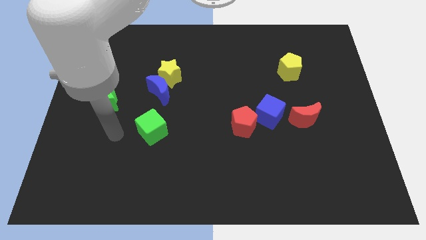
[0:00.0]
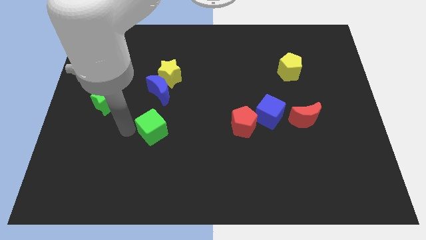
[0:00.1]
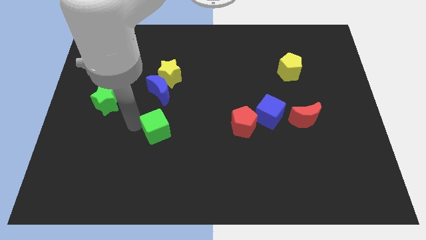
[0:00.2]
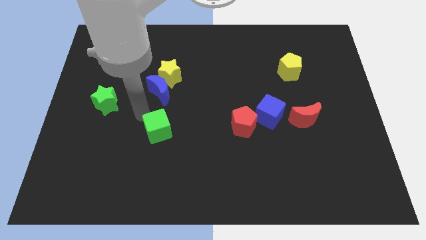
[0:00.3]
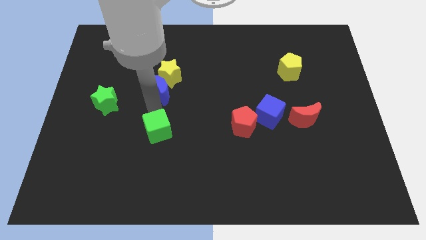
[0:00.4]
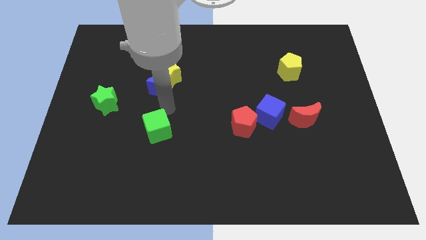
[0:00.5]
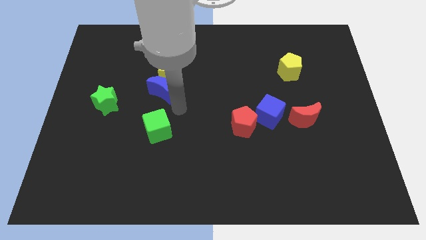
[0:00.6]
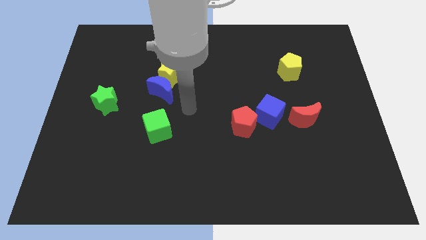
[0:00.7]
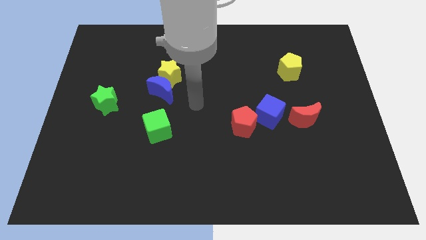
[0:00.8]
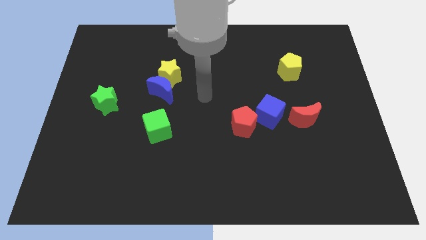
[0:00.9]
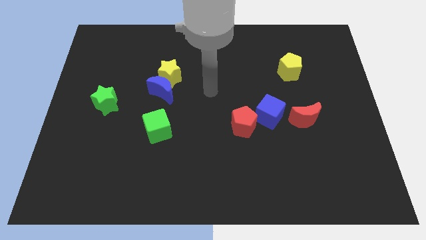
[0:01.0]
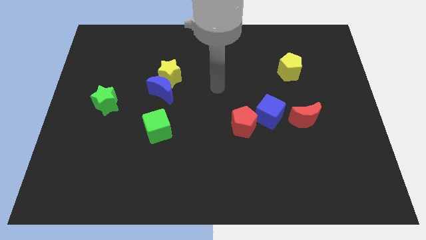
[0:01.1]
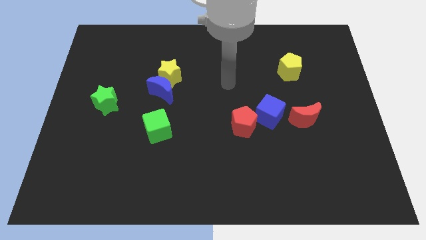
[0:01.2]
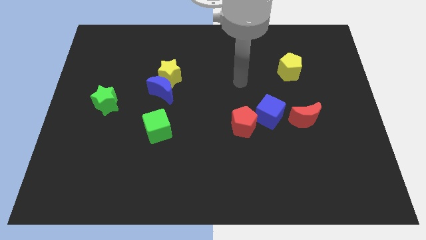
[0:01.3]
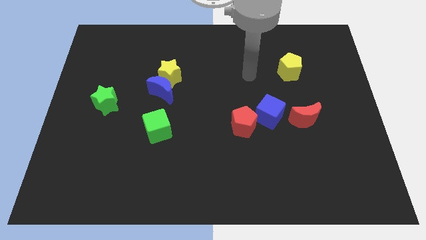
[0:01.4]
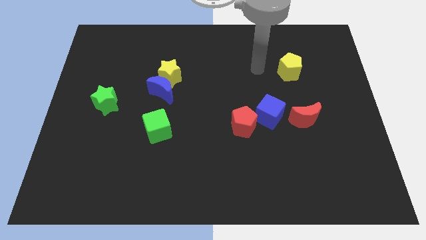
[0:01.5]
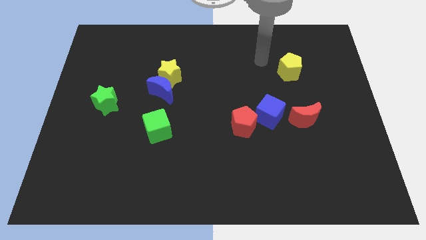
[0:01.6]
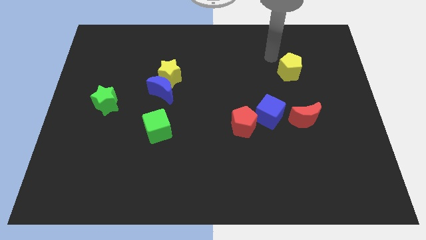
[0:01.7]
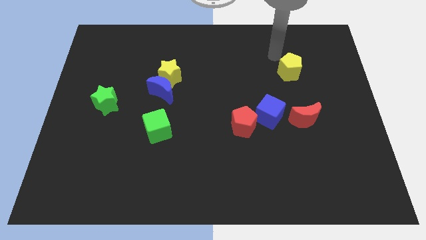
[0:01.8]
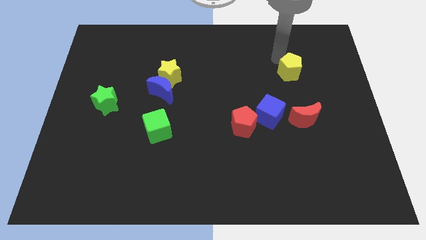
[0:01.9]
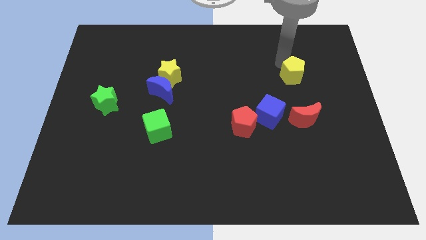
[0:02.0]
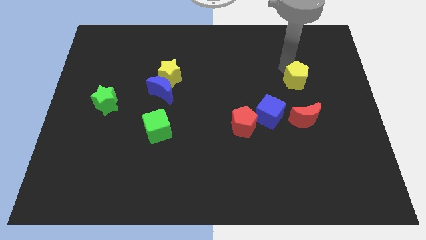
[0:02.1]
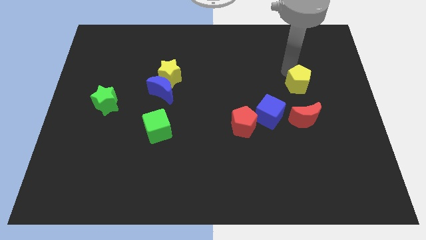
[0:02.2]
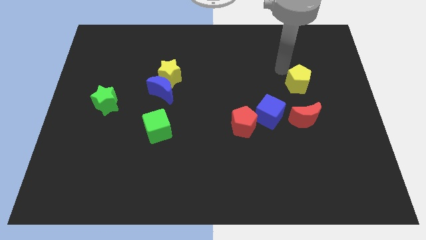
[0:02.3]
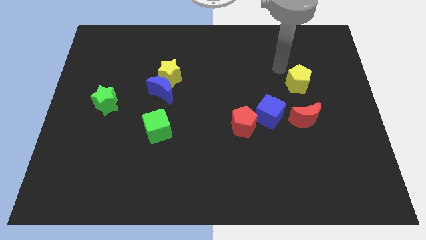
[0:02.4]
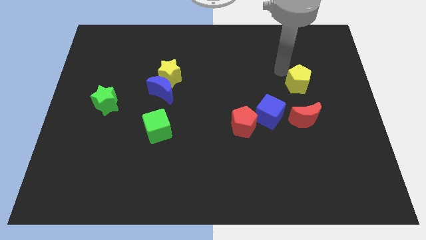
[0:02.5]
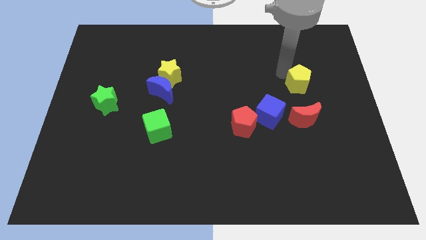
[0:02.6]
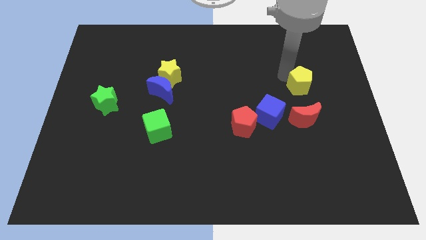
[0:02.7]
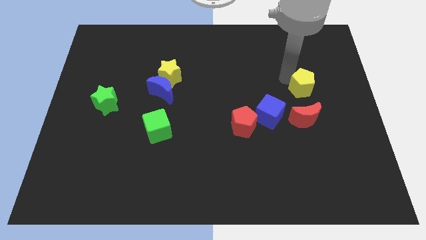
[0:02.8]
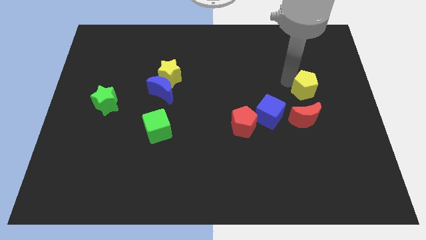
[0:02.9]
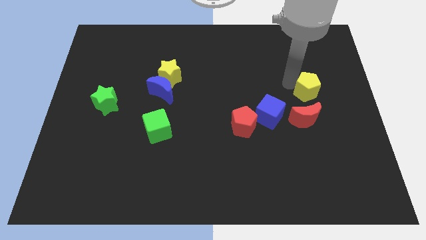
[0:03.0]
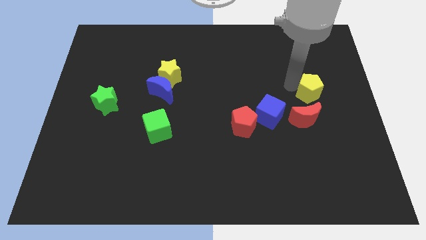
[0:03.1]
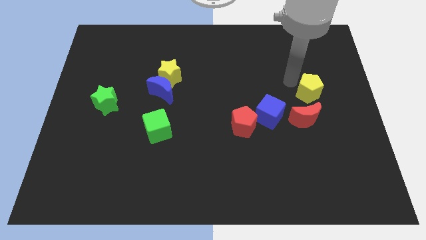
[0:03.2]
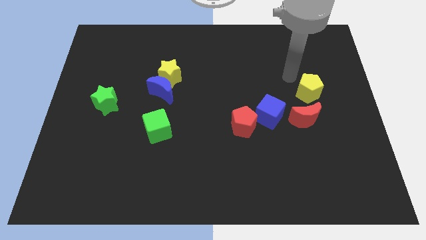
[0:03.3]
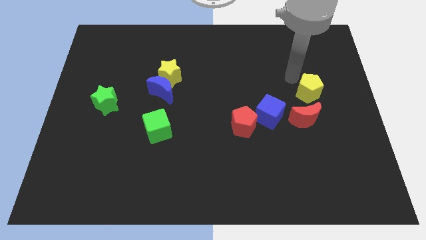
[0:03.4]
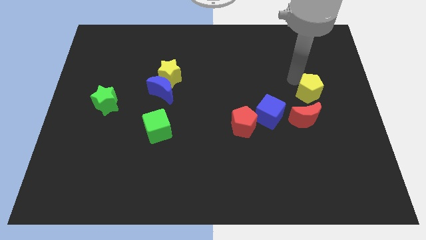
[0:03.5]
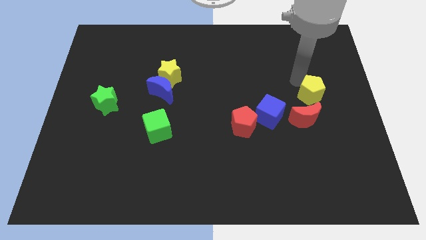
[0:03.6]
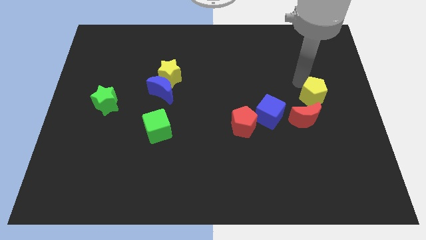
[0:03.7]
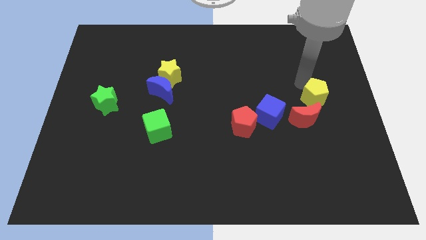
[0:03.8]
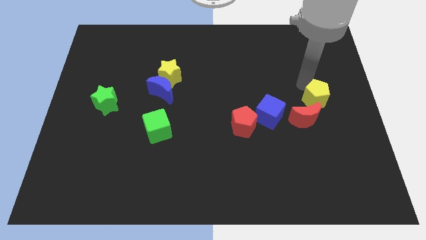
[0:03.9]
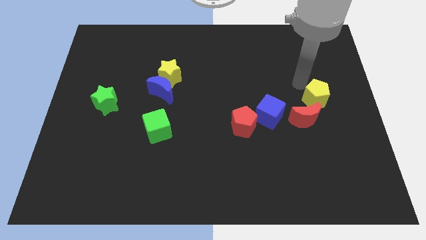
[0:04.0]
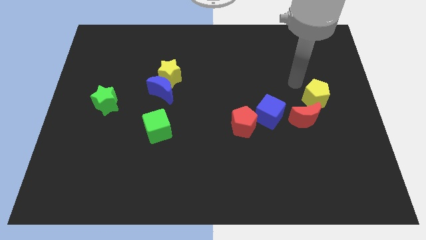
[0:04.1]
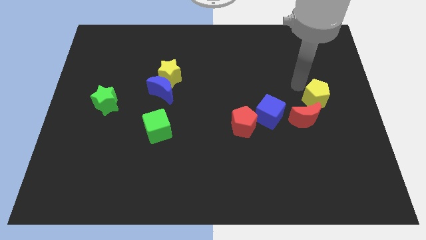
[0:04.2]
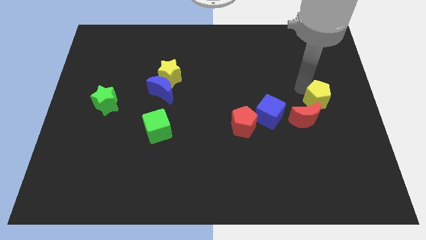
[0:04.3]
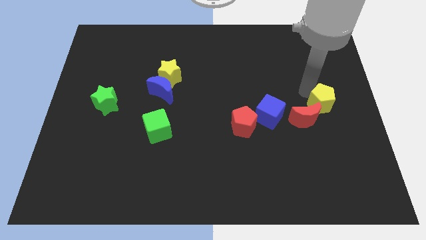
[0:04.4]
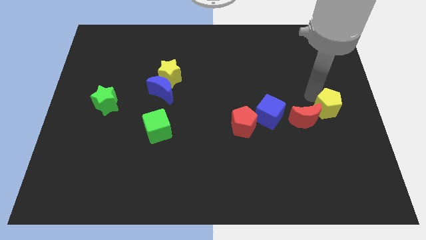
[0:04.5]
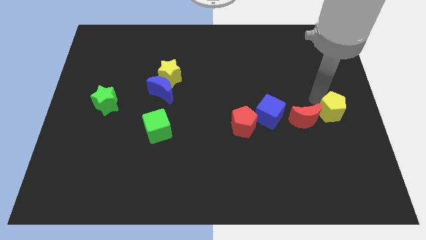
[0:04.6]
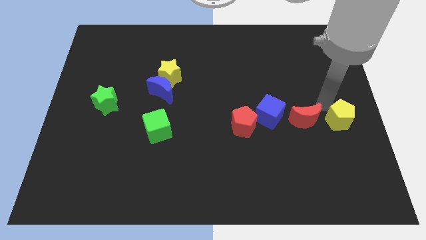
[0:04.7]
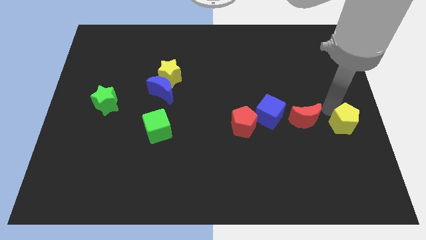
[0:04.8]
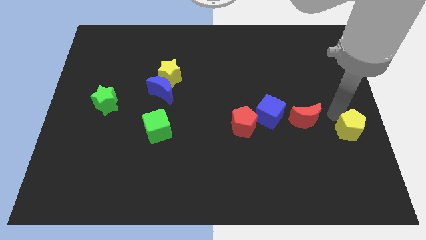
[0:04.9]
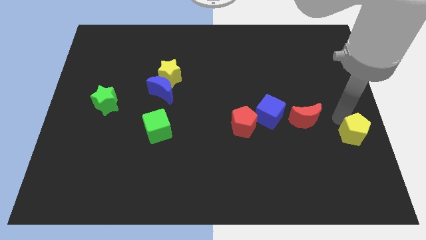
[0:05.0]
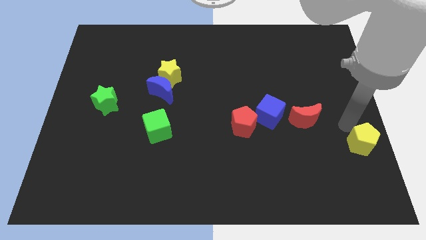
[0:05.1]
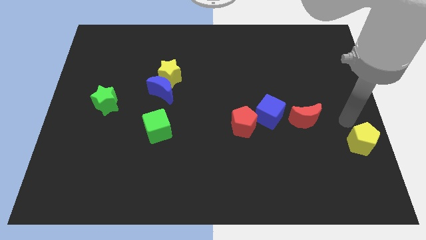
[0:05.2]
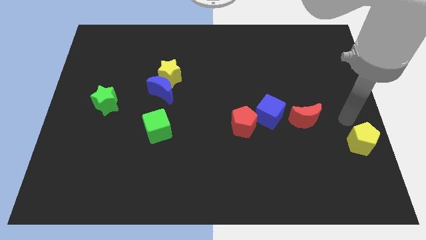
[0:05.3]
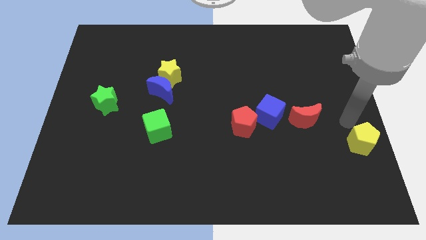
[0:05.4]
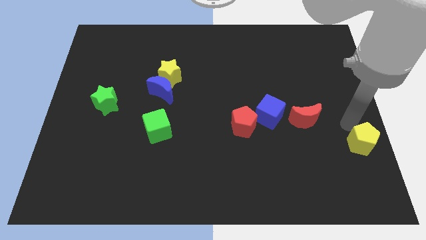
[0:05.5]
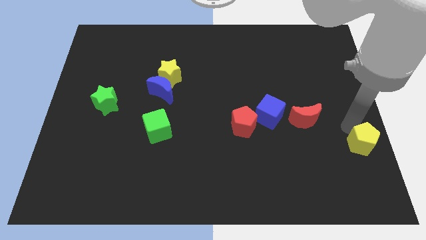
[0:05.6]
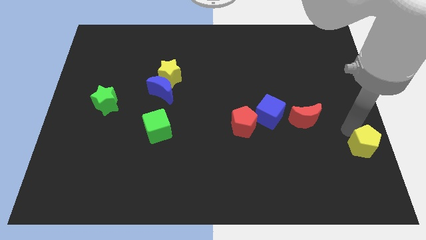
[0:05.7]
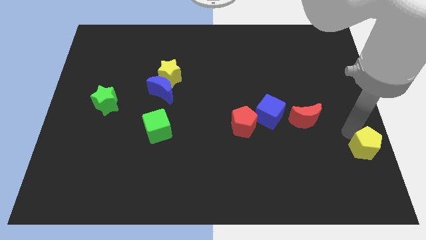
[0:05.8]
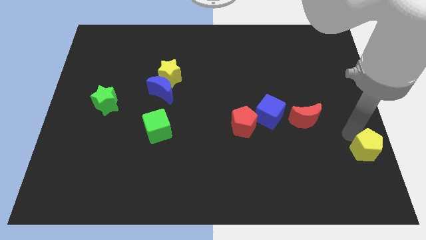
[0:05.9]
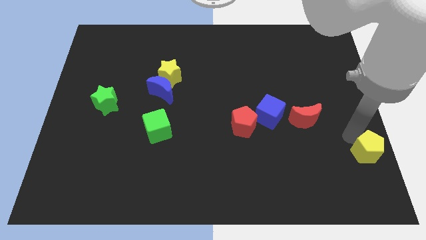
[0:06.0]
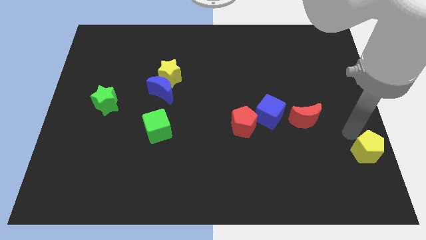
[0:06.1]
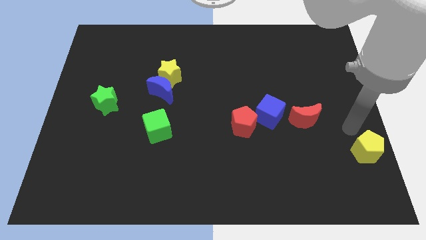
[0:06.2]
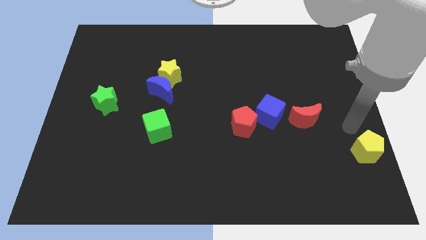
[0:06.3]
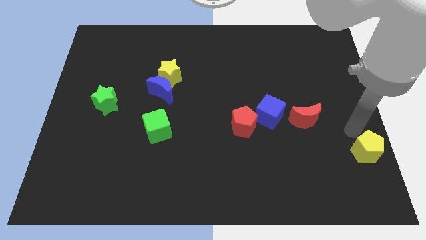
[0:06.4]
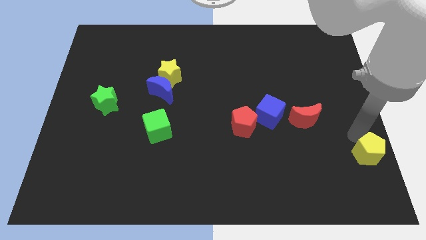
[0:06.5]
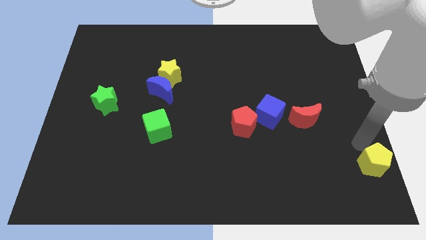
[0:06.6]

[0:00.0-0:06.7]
put the yellow pentagon to the lower right corner
